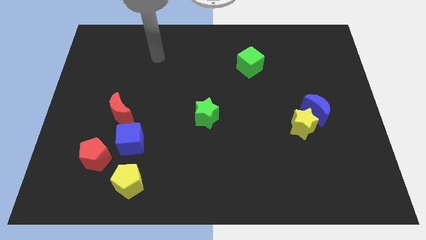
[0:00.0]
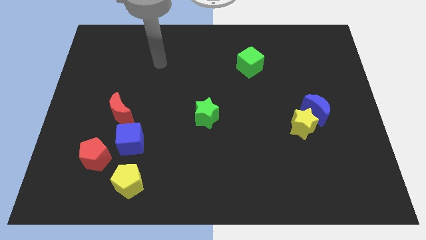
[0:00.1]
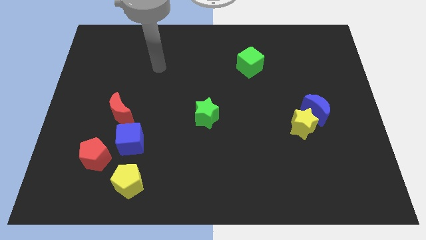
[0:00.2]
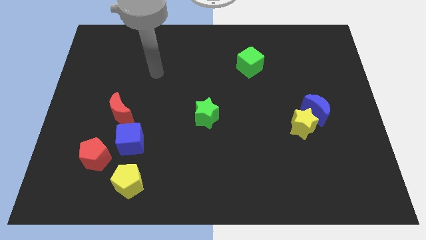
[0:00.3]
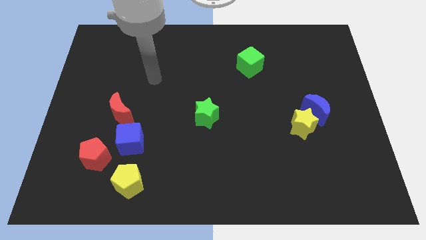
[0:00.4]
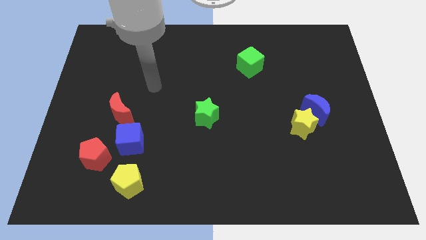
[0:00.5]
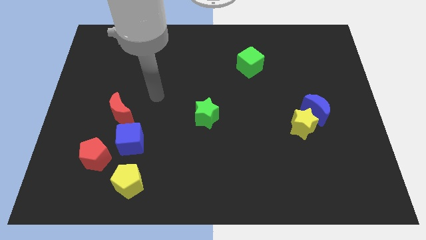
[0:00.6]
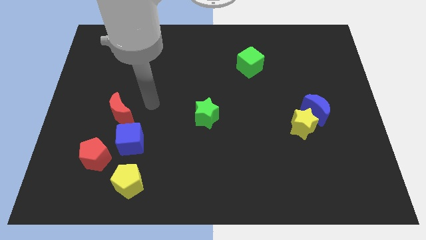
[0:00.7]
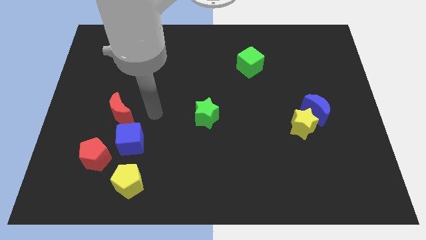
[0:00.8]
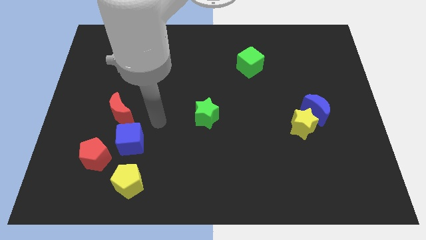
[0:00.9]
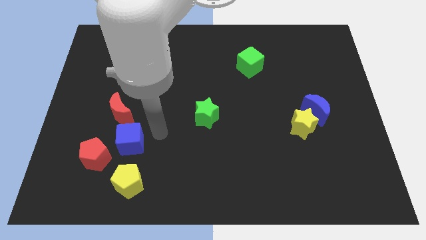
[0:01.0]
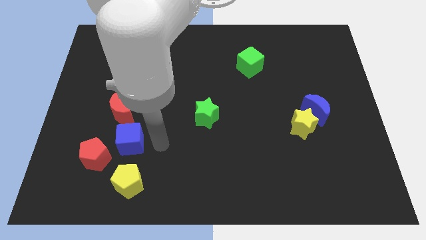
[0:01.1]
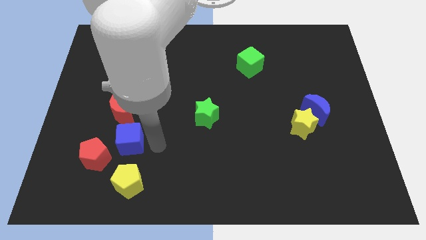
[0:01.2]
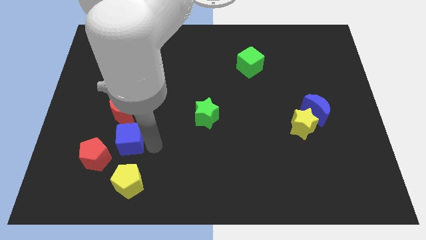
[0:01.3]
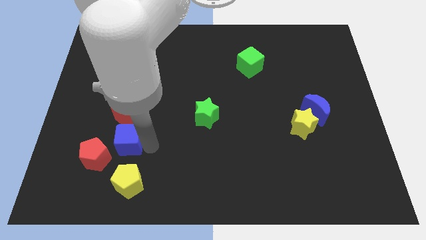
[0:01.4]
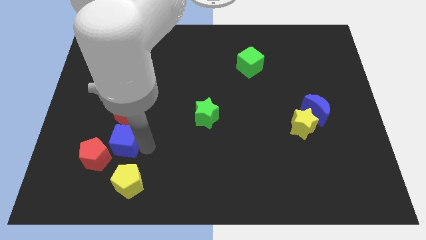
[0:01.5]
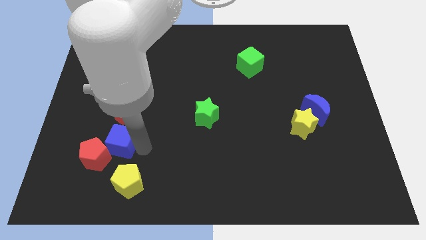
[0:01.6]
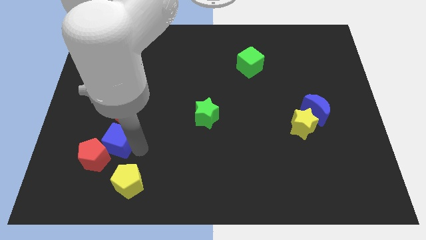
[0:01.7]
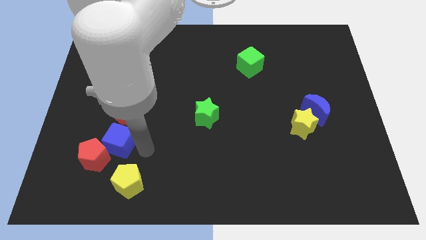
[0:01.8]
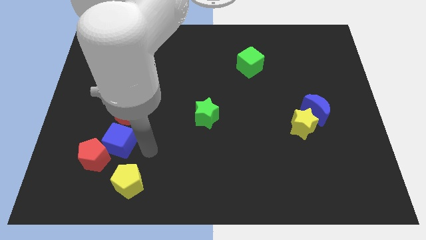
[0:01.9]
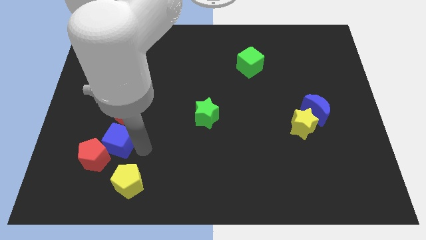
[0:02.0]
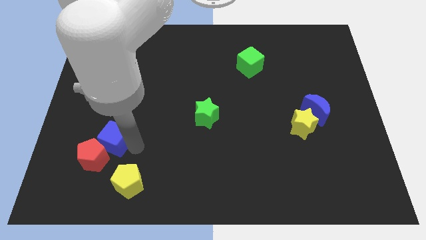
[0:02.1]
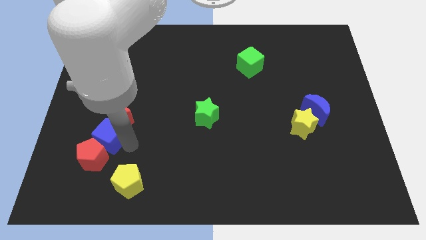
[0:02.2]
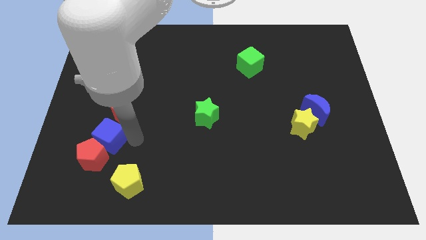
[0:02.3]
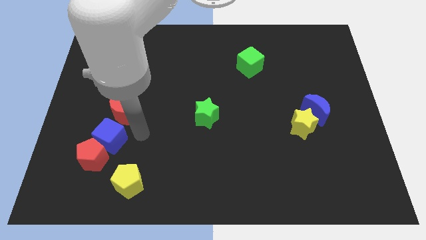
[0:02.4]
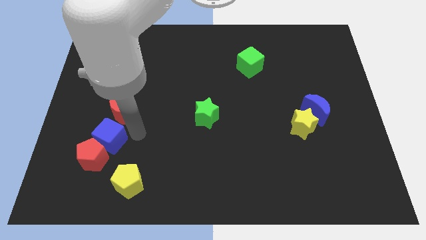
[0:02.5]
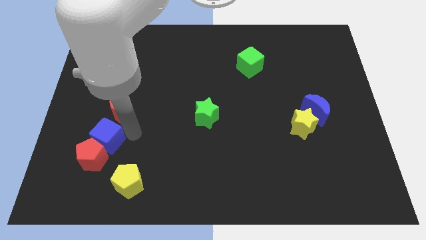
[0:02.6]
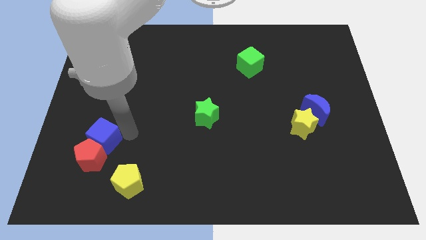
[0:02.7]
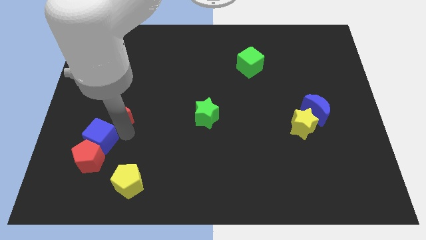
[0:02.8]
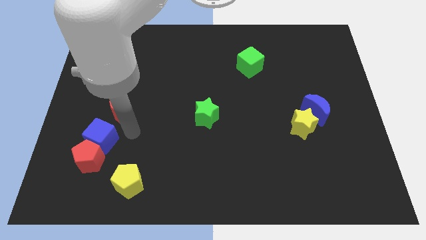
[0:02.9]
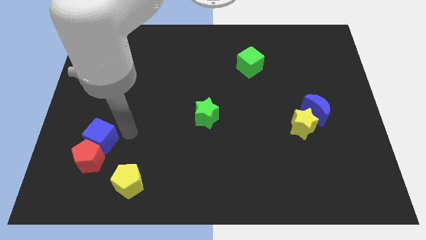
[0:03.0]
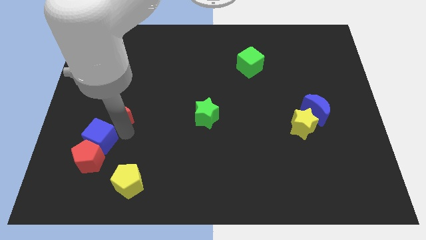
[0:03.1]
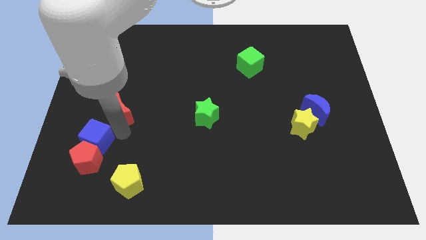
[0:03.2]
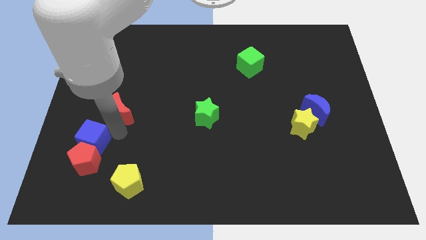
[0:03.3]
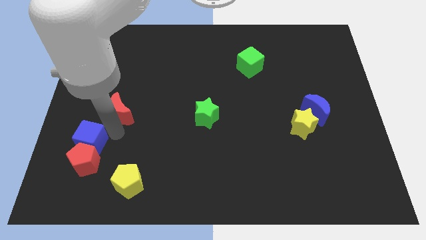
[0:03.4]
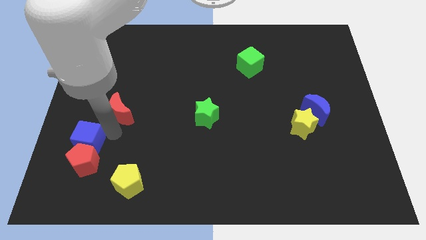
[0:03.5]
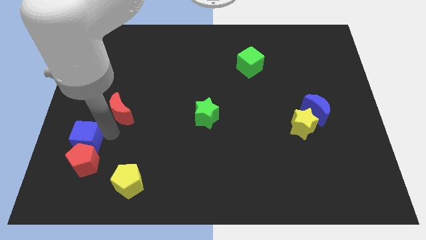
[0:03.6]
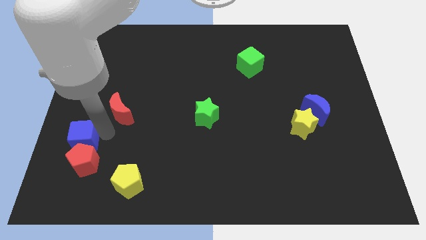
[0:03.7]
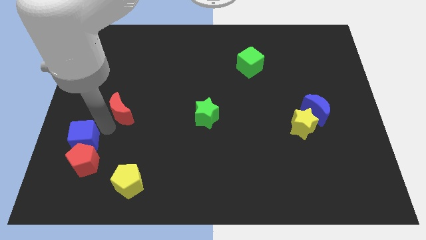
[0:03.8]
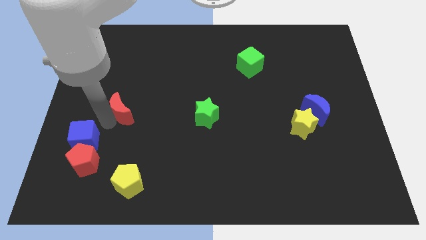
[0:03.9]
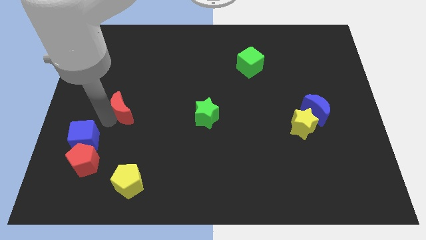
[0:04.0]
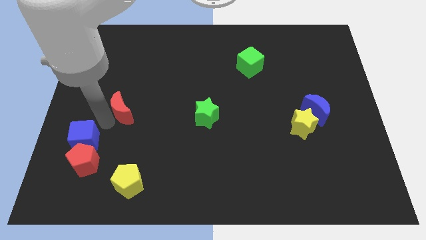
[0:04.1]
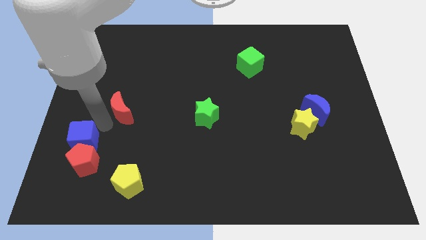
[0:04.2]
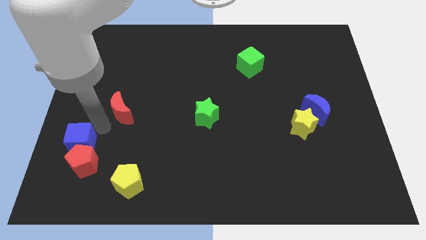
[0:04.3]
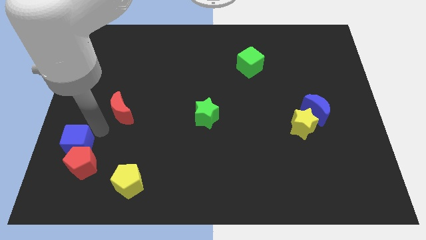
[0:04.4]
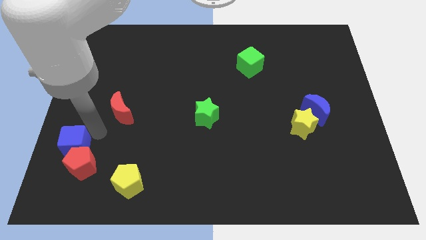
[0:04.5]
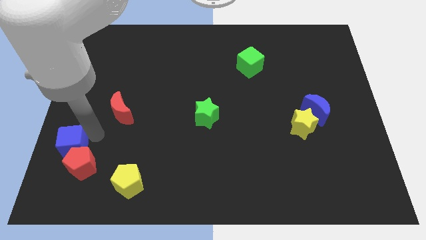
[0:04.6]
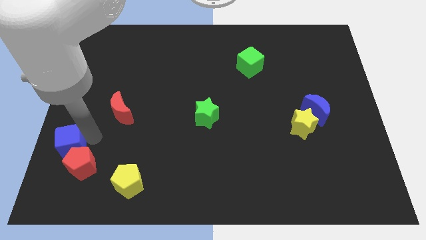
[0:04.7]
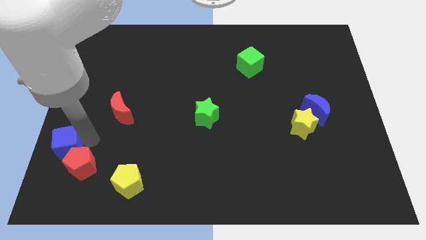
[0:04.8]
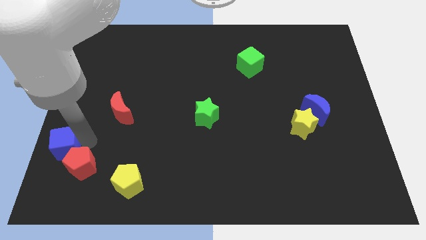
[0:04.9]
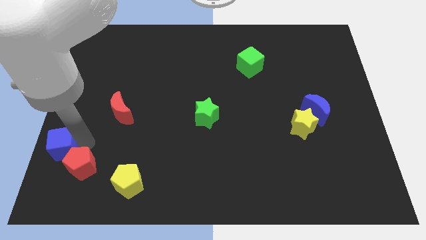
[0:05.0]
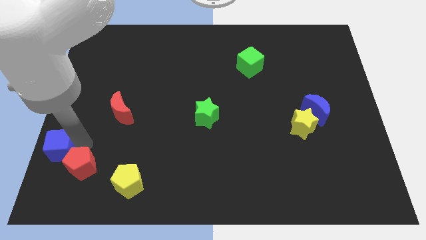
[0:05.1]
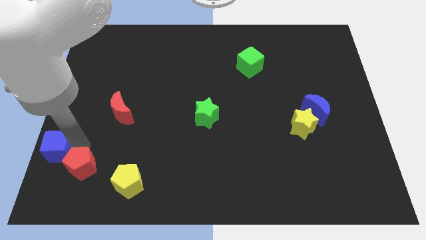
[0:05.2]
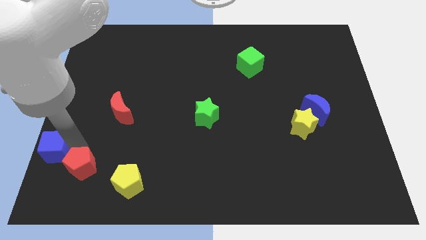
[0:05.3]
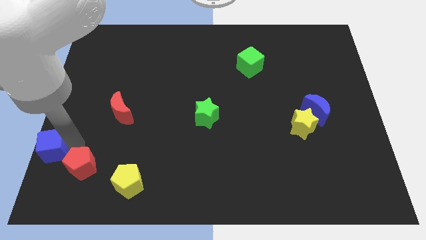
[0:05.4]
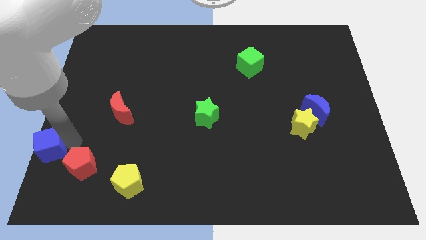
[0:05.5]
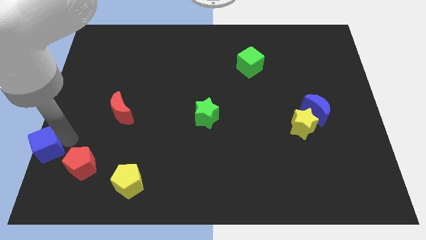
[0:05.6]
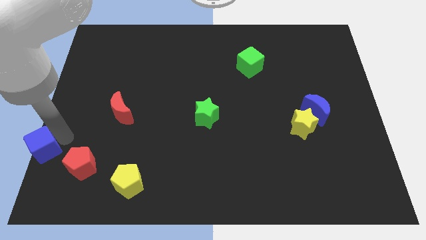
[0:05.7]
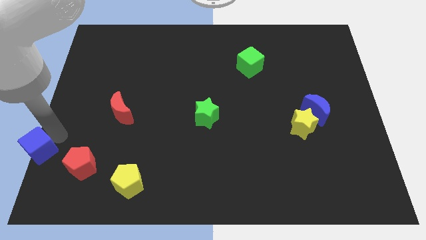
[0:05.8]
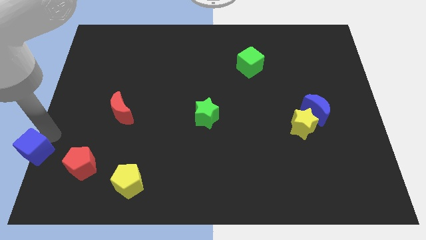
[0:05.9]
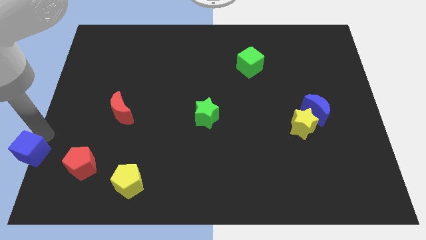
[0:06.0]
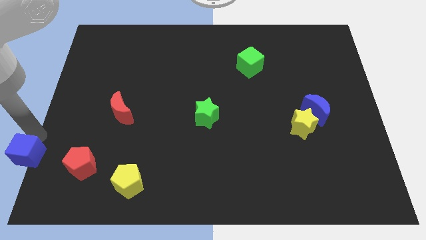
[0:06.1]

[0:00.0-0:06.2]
move the blue cube to the bottom left corner

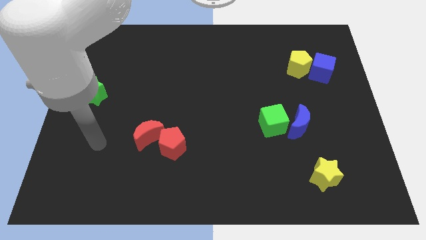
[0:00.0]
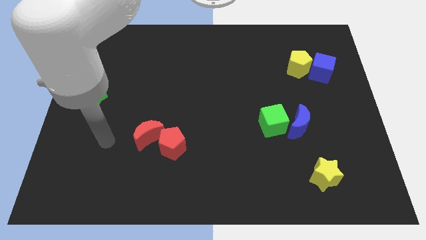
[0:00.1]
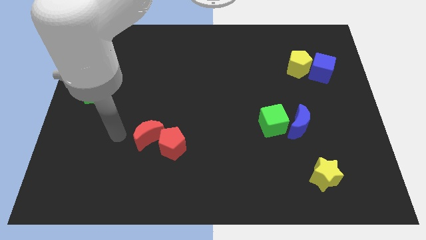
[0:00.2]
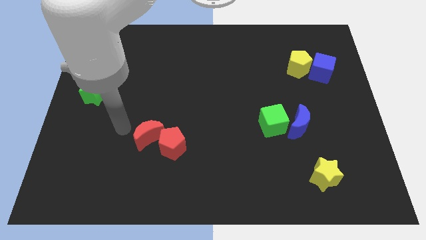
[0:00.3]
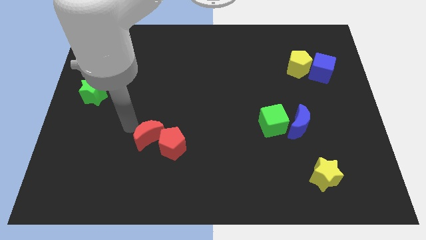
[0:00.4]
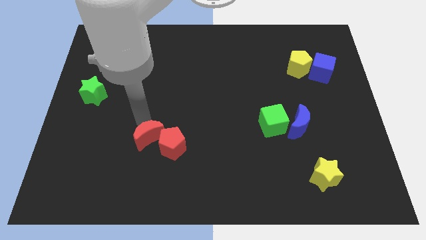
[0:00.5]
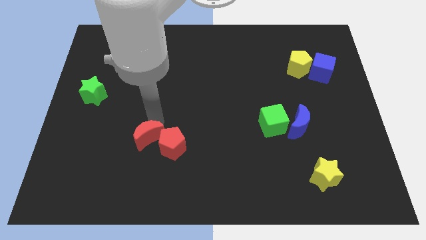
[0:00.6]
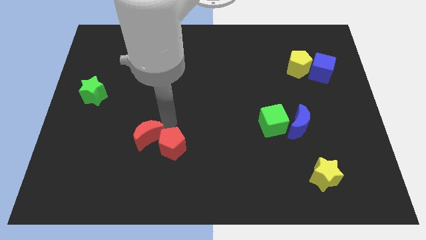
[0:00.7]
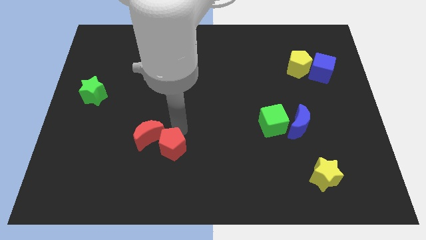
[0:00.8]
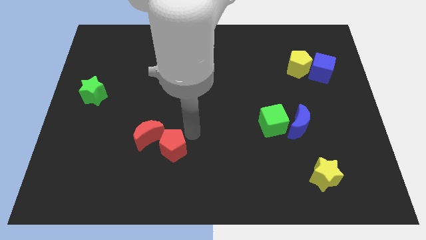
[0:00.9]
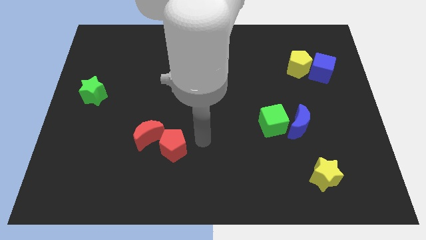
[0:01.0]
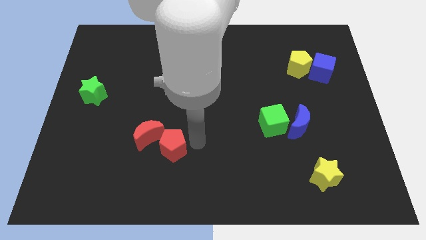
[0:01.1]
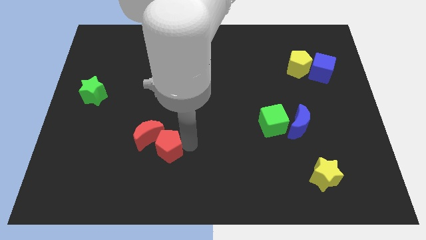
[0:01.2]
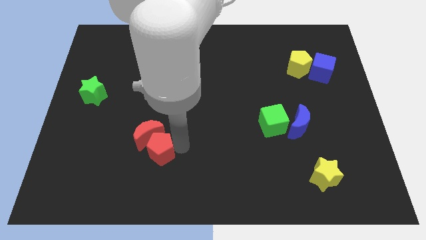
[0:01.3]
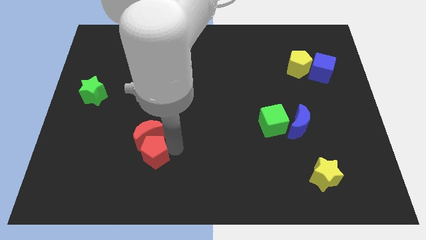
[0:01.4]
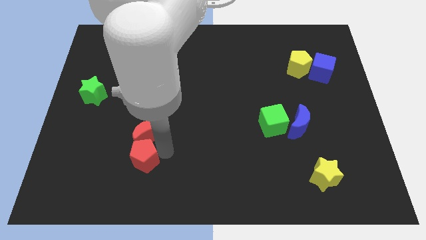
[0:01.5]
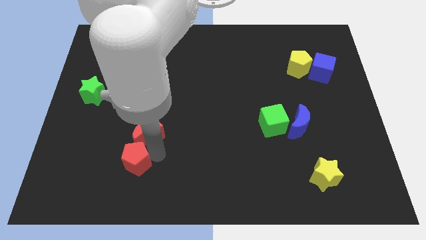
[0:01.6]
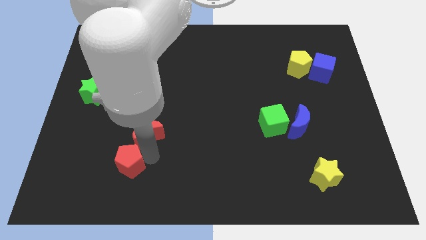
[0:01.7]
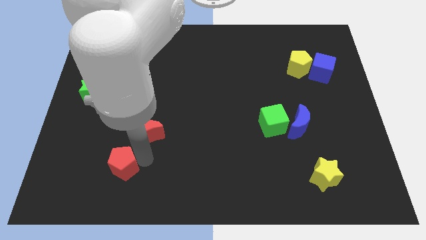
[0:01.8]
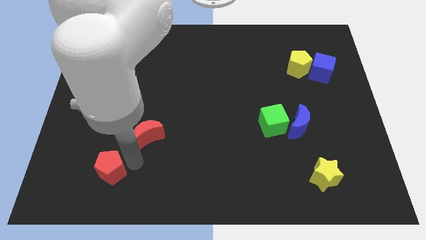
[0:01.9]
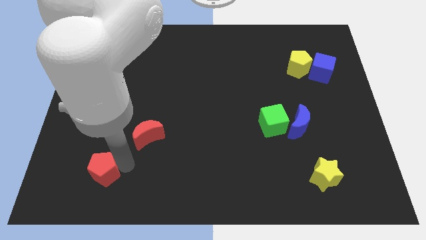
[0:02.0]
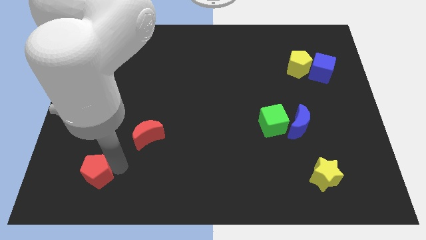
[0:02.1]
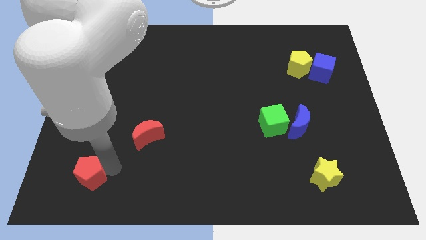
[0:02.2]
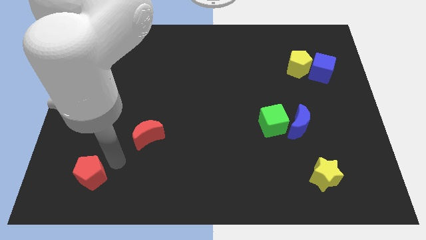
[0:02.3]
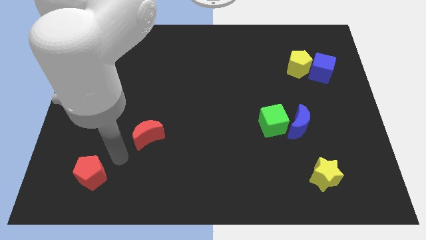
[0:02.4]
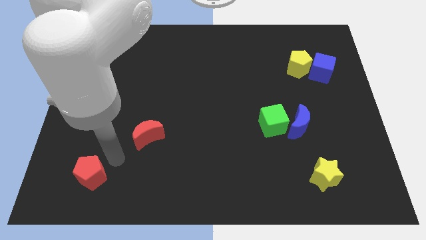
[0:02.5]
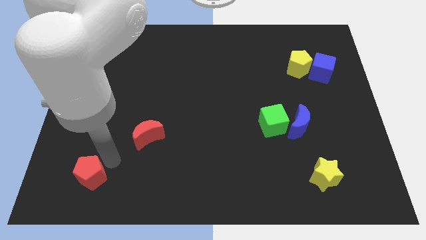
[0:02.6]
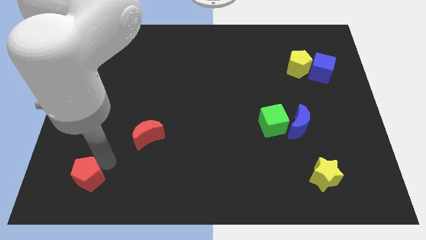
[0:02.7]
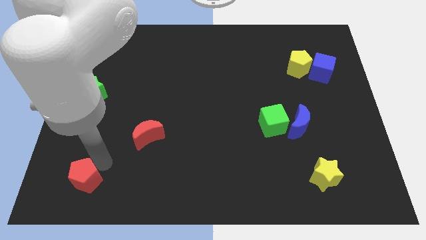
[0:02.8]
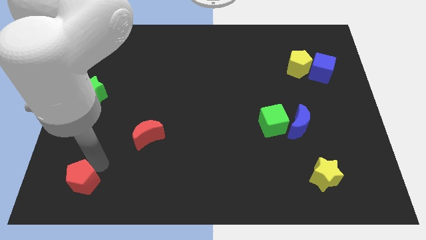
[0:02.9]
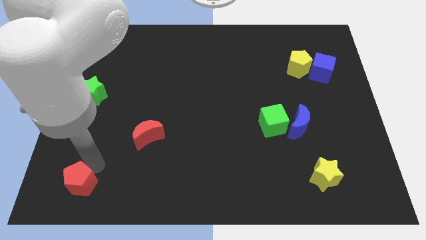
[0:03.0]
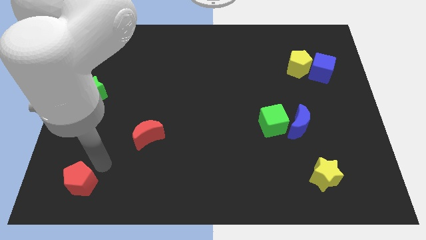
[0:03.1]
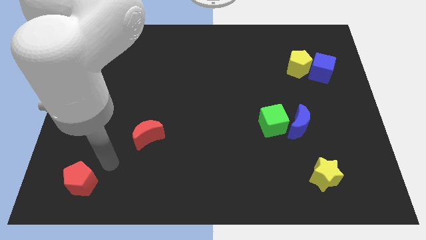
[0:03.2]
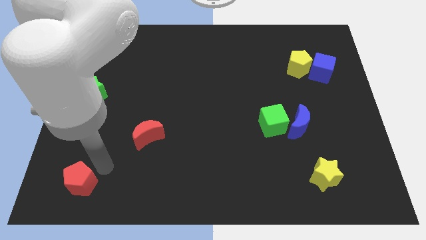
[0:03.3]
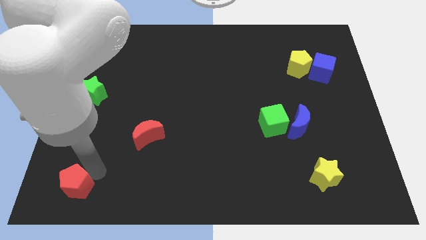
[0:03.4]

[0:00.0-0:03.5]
slide the red pentagon to the bottom left
